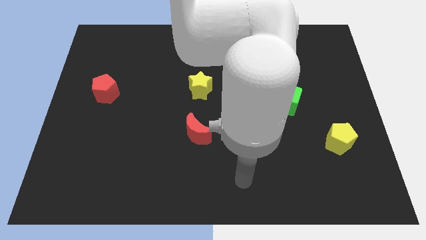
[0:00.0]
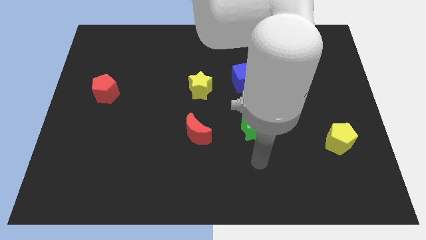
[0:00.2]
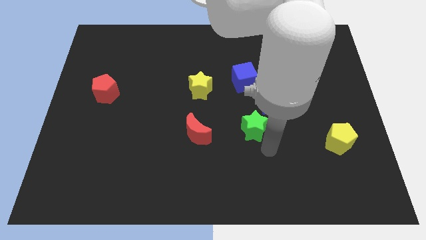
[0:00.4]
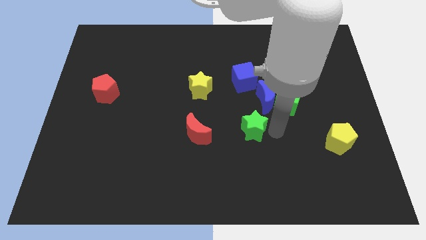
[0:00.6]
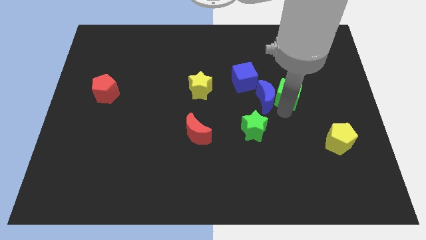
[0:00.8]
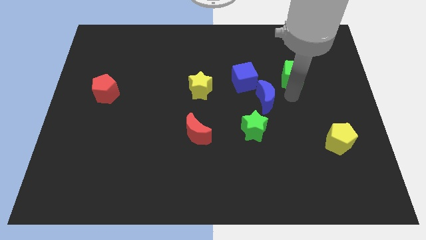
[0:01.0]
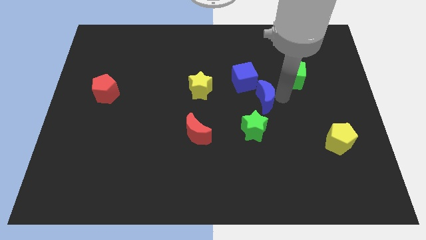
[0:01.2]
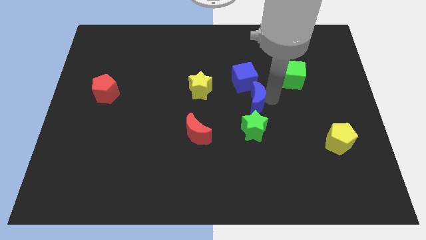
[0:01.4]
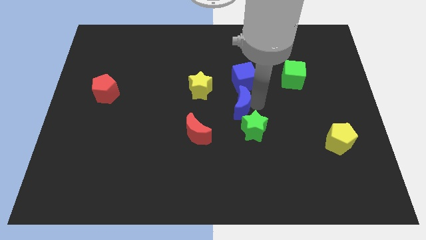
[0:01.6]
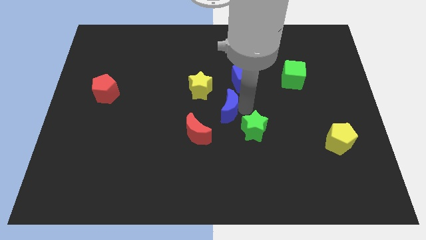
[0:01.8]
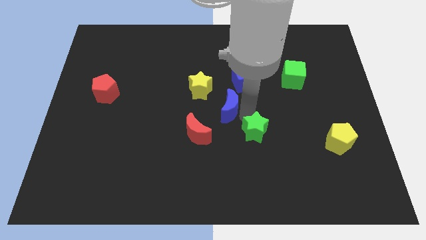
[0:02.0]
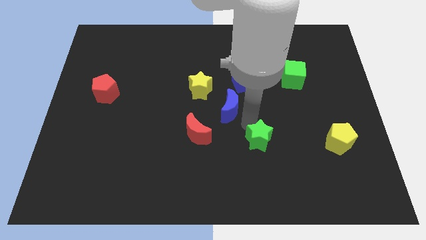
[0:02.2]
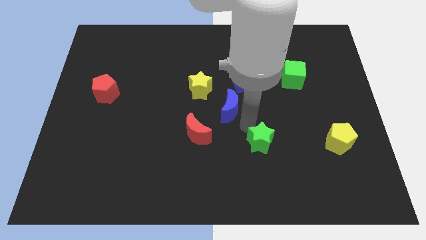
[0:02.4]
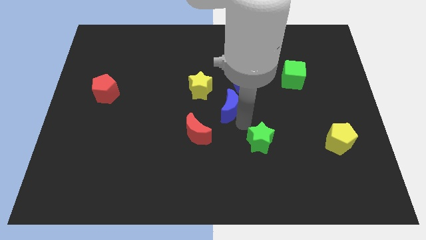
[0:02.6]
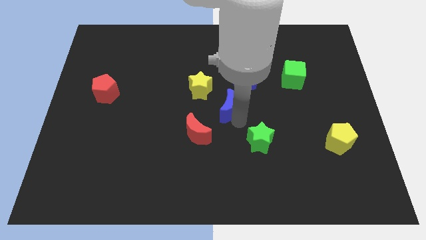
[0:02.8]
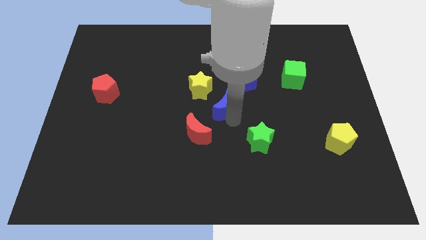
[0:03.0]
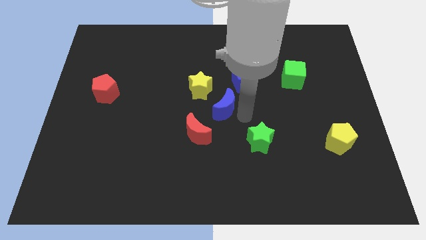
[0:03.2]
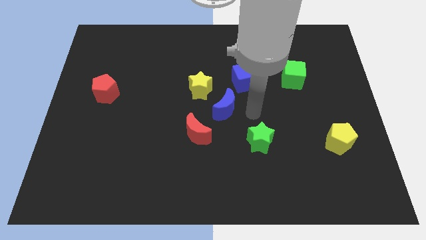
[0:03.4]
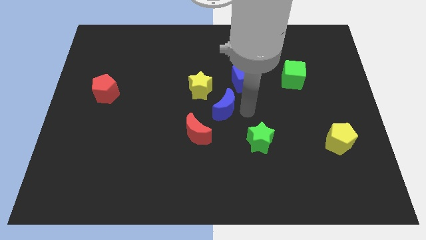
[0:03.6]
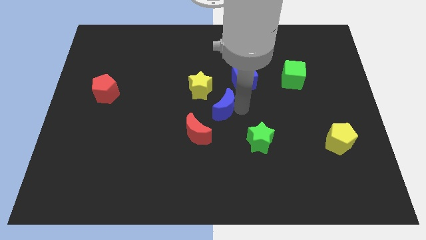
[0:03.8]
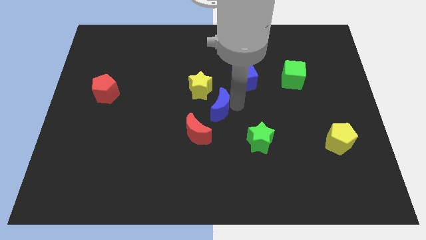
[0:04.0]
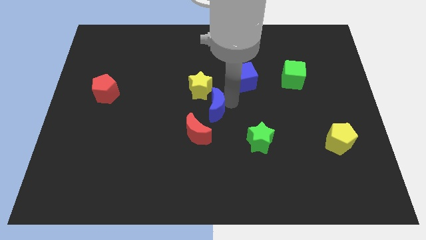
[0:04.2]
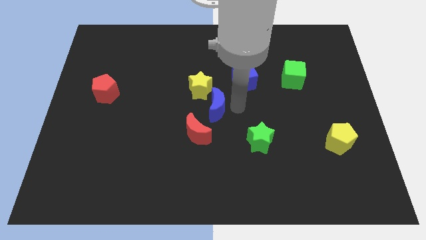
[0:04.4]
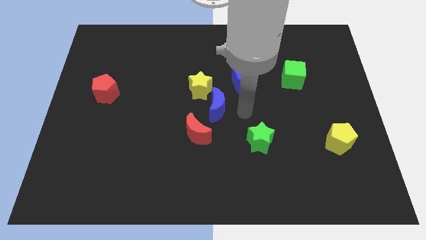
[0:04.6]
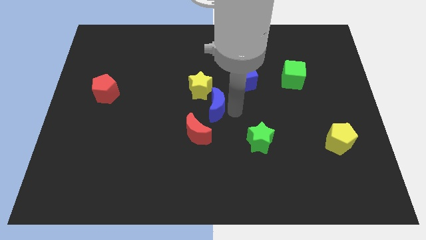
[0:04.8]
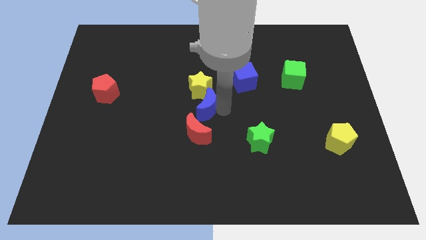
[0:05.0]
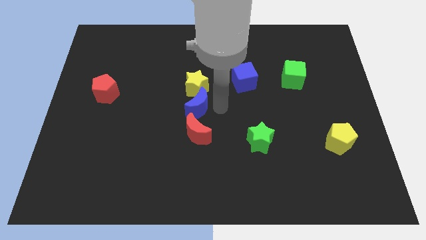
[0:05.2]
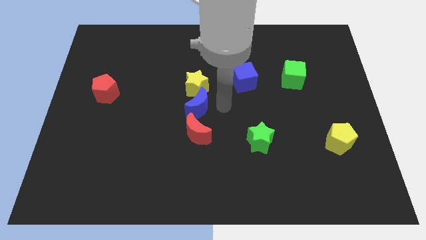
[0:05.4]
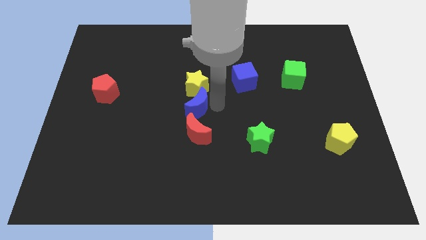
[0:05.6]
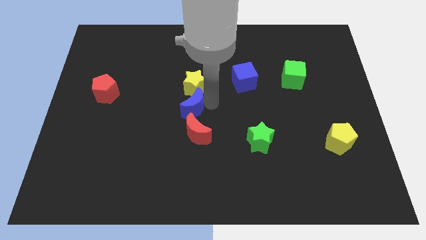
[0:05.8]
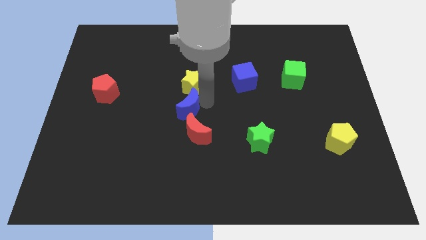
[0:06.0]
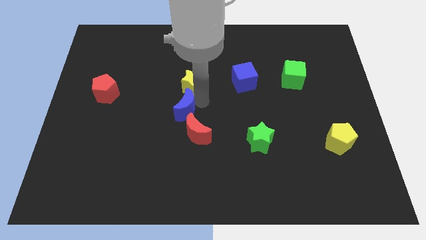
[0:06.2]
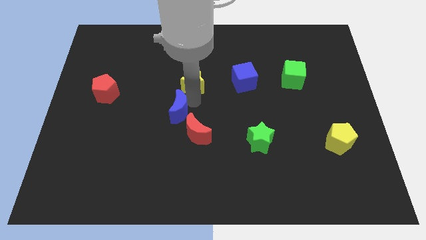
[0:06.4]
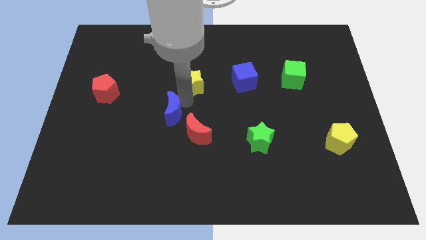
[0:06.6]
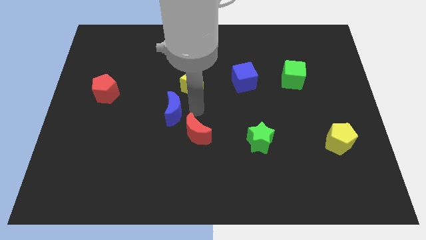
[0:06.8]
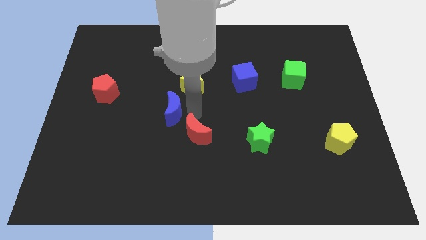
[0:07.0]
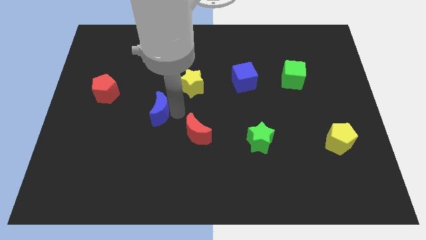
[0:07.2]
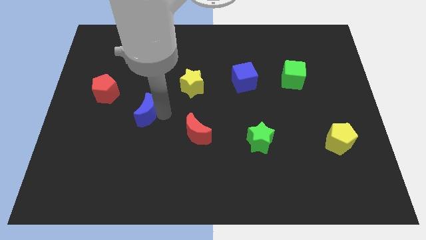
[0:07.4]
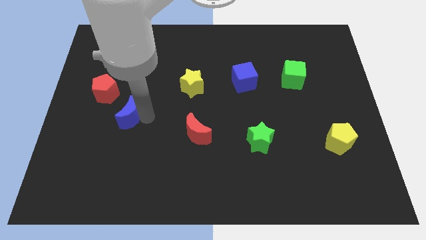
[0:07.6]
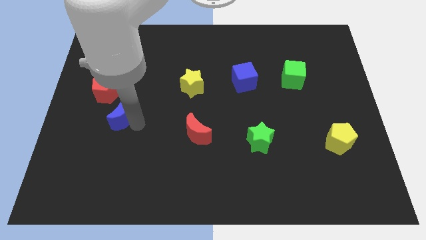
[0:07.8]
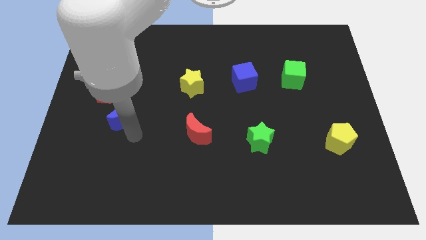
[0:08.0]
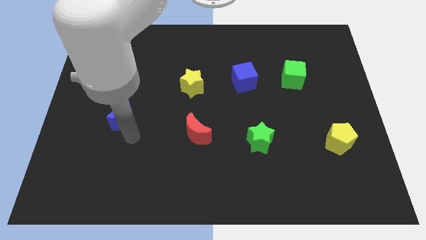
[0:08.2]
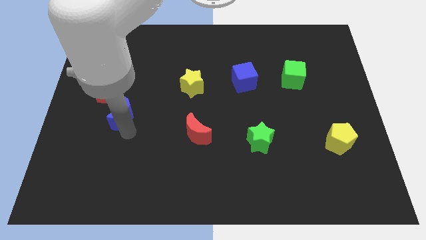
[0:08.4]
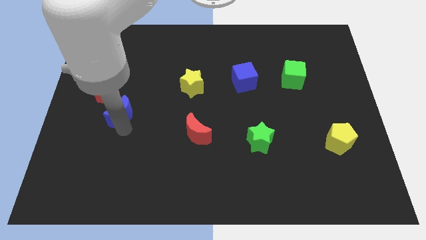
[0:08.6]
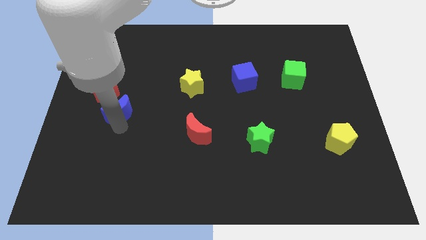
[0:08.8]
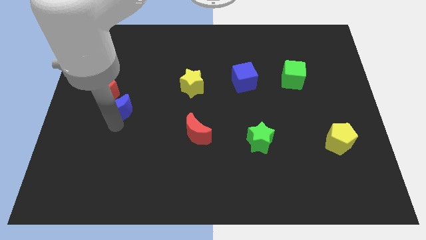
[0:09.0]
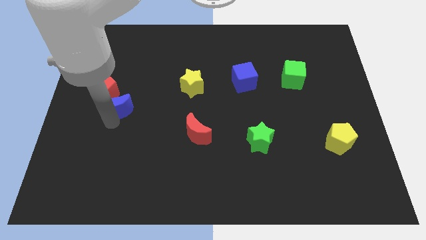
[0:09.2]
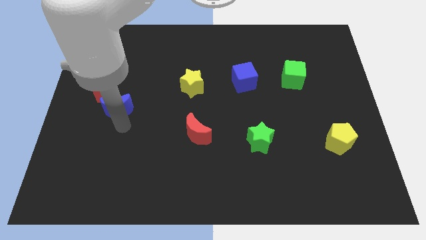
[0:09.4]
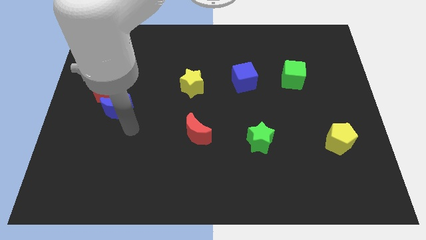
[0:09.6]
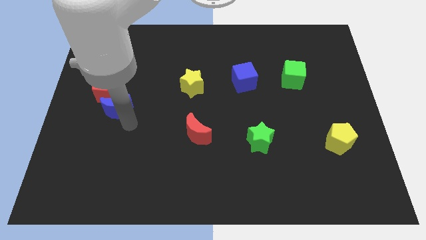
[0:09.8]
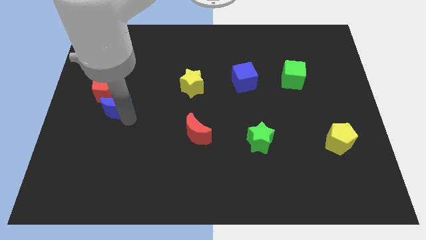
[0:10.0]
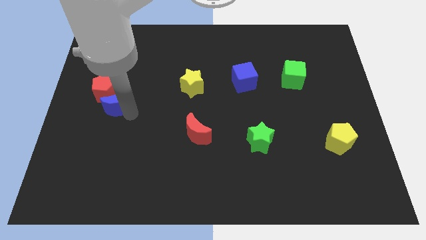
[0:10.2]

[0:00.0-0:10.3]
push the blue moon to the red pentagon

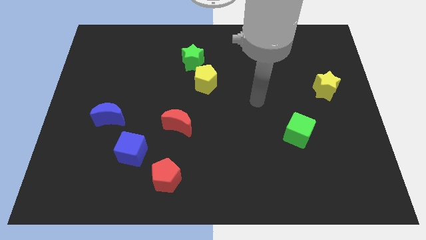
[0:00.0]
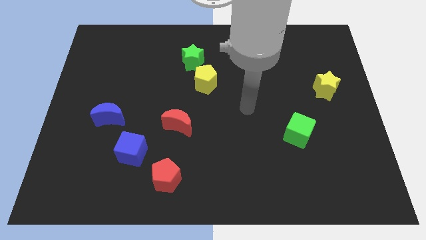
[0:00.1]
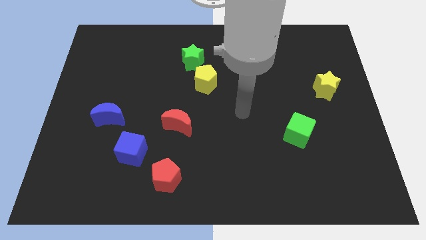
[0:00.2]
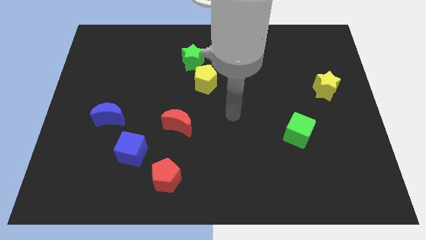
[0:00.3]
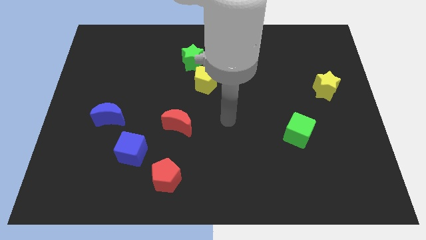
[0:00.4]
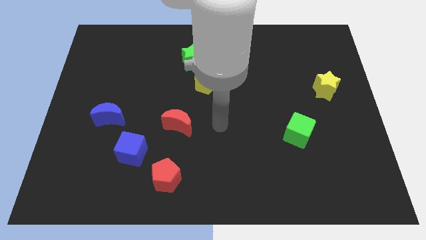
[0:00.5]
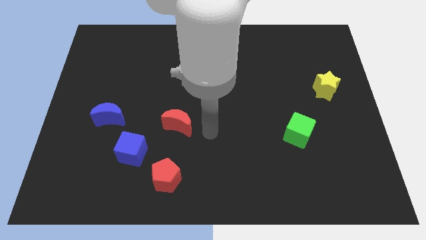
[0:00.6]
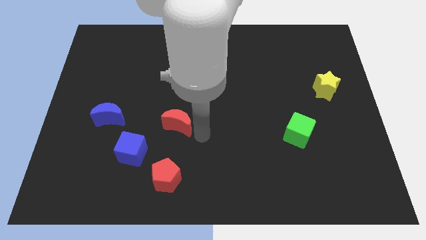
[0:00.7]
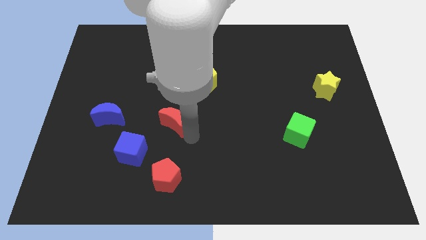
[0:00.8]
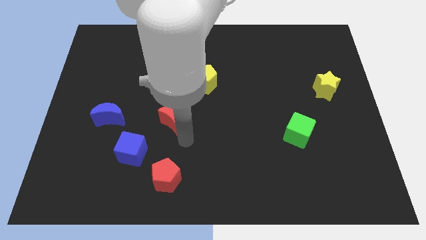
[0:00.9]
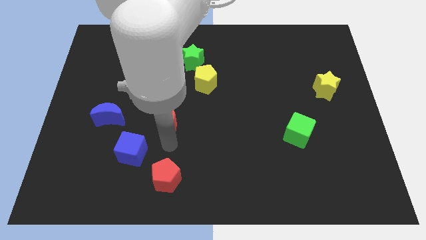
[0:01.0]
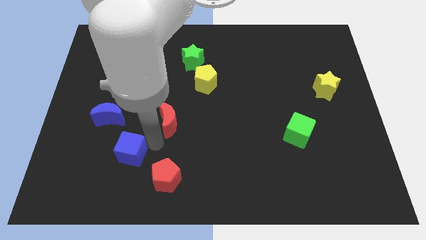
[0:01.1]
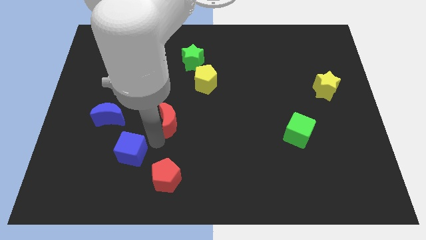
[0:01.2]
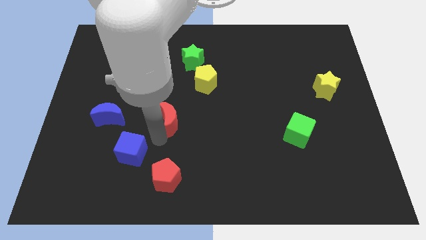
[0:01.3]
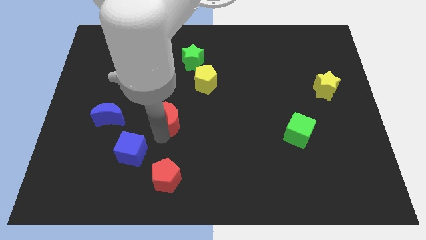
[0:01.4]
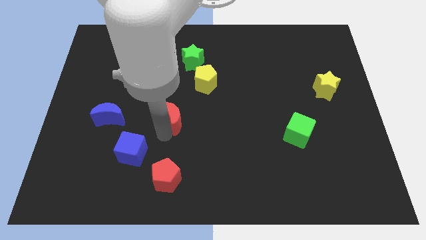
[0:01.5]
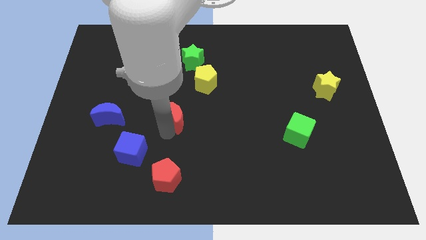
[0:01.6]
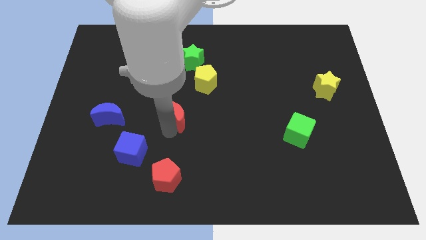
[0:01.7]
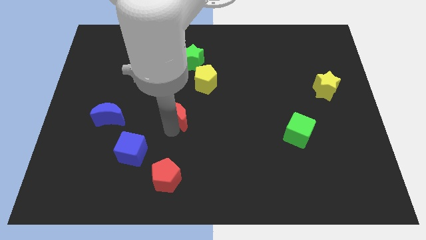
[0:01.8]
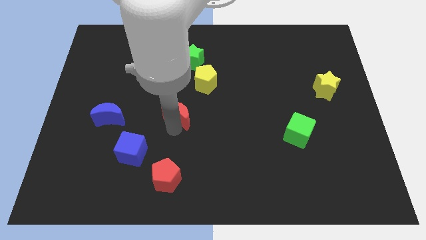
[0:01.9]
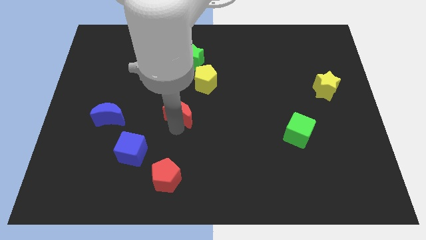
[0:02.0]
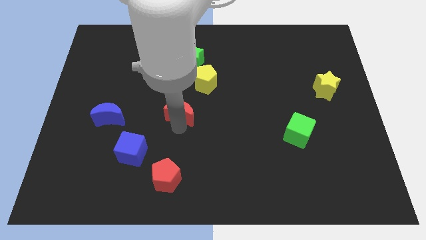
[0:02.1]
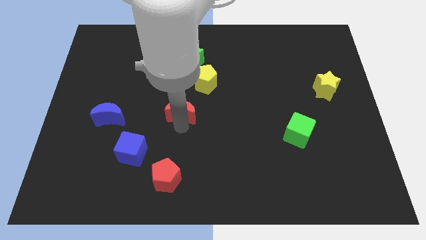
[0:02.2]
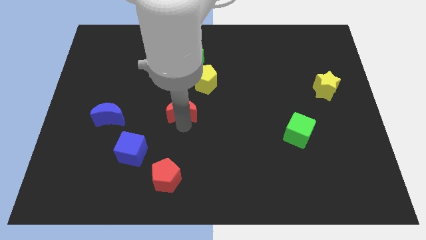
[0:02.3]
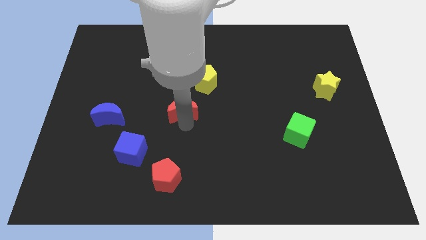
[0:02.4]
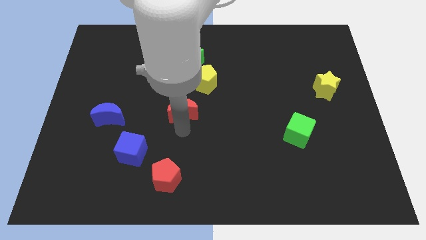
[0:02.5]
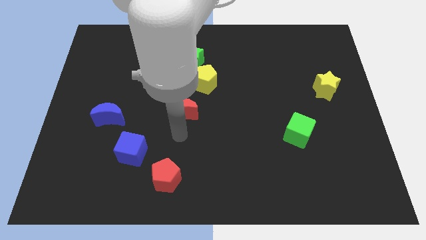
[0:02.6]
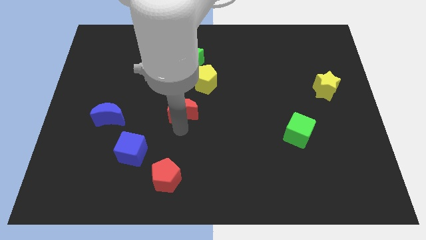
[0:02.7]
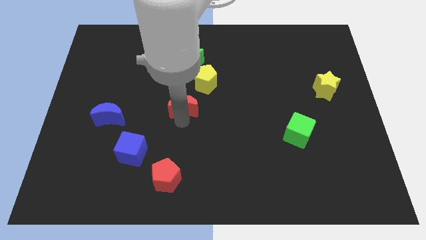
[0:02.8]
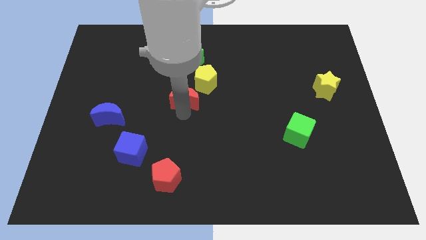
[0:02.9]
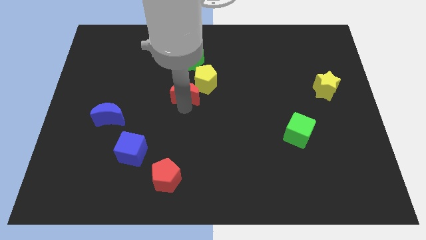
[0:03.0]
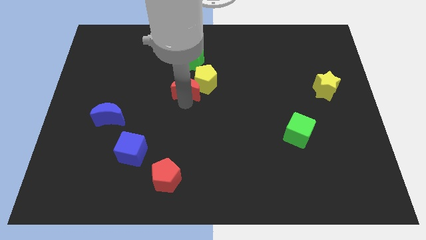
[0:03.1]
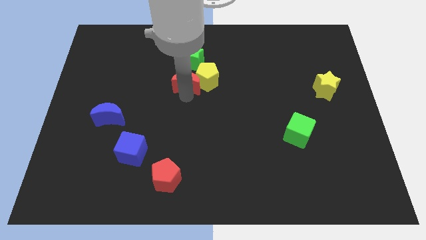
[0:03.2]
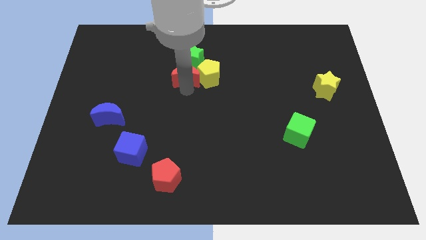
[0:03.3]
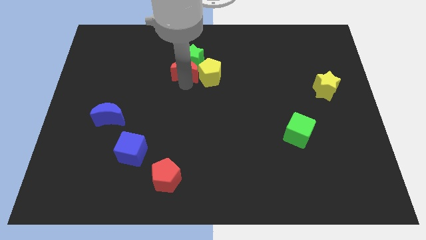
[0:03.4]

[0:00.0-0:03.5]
push the red moon next to the green star
